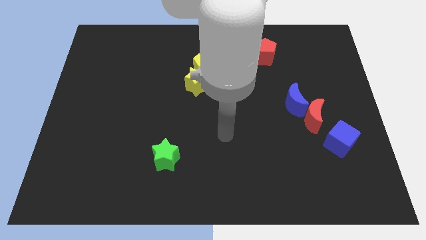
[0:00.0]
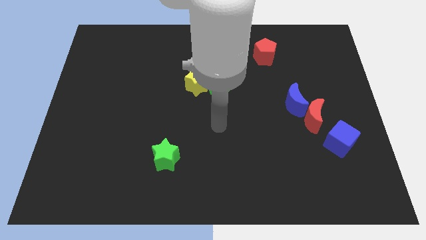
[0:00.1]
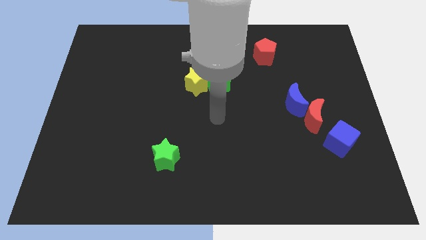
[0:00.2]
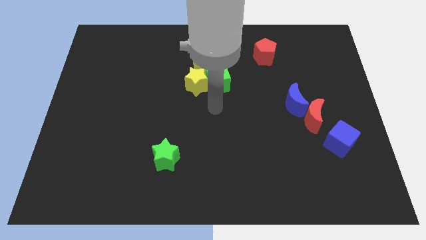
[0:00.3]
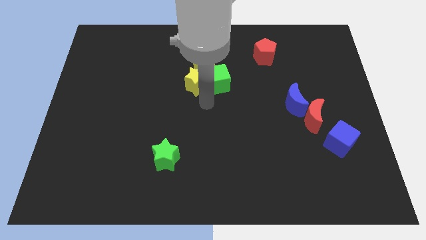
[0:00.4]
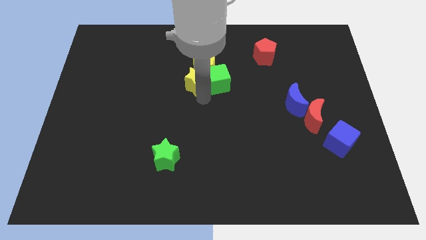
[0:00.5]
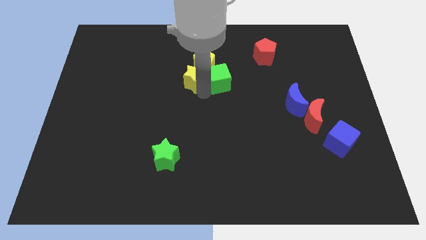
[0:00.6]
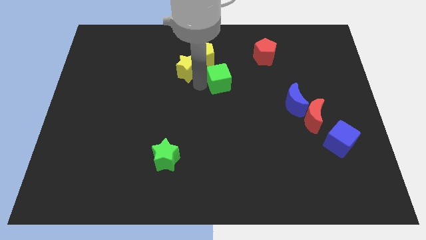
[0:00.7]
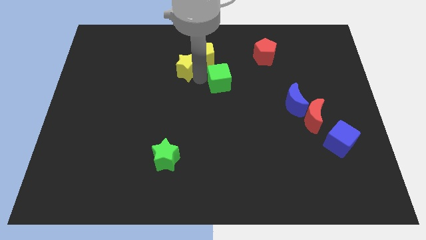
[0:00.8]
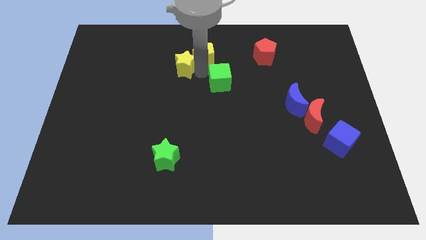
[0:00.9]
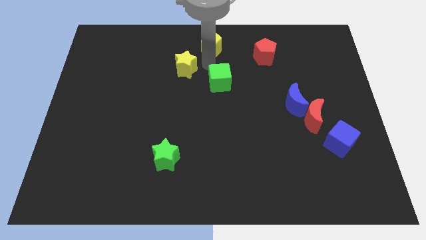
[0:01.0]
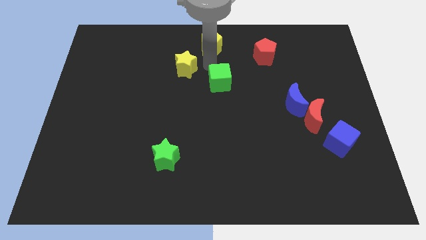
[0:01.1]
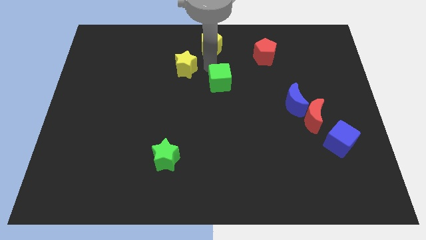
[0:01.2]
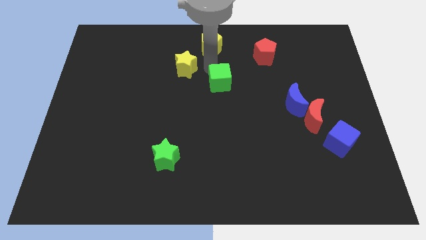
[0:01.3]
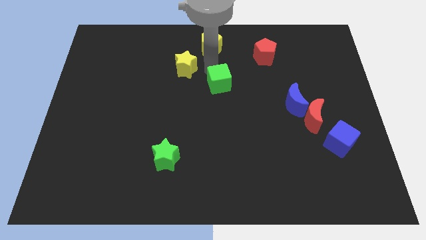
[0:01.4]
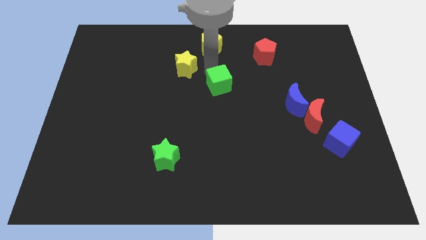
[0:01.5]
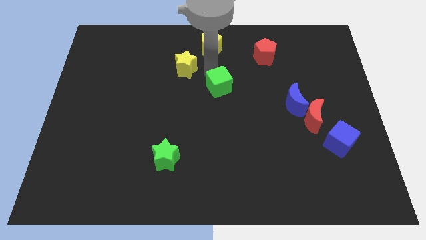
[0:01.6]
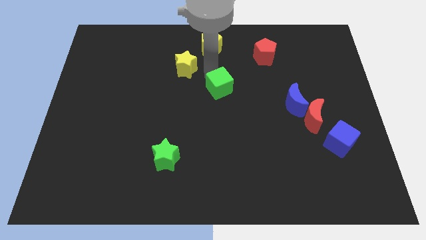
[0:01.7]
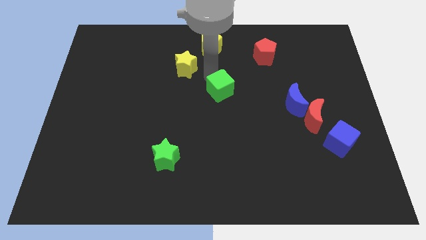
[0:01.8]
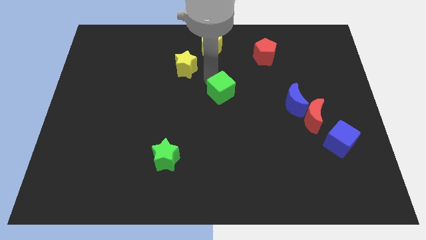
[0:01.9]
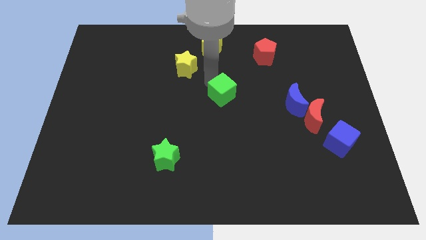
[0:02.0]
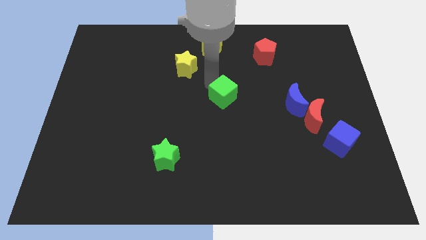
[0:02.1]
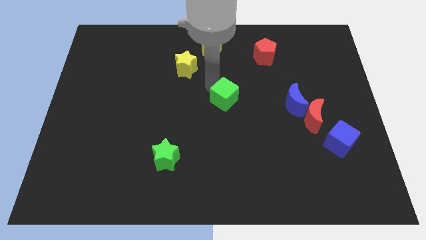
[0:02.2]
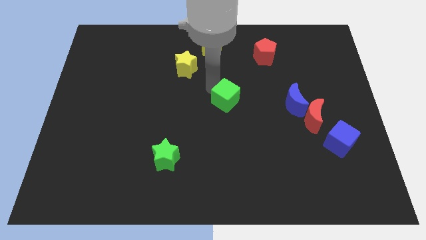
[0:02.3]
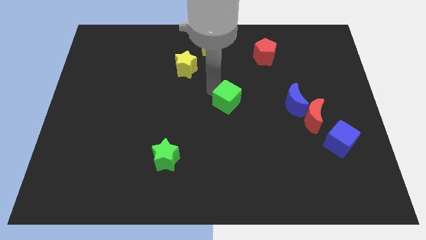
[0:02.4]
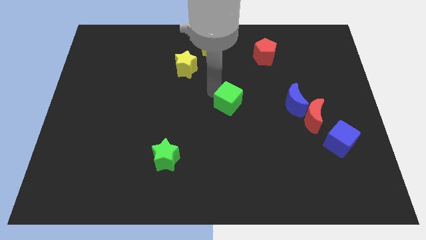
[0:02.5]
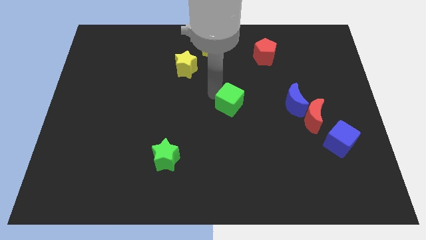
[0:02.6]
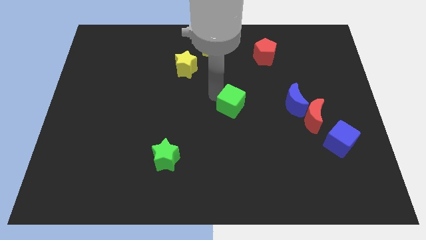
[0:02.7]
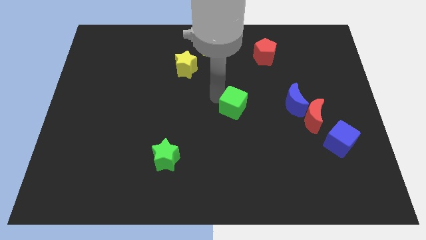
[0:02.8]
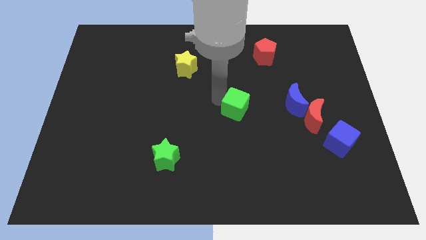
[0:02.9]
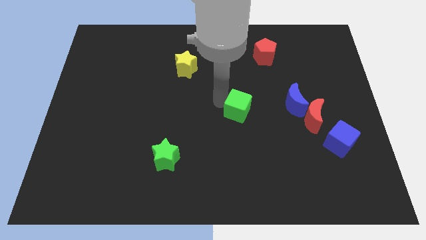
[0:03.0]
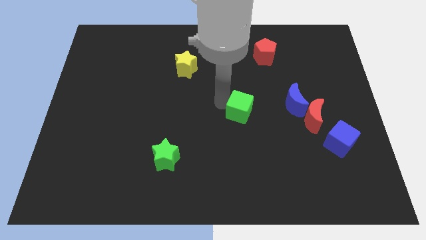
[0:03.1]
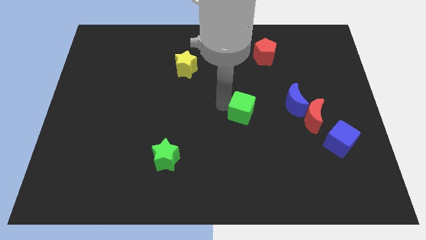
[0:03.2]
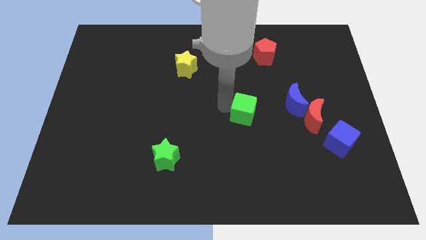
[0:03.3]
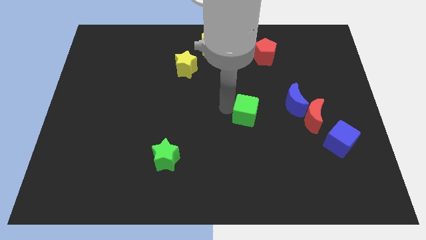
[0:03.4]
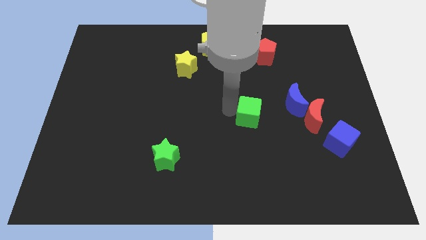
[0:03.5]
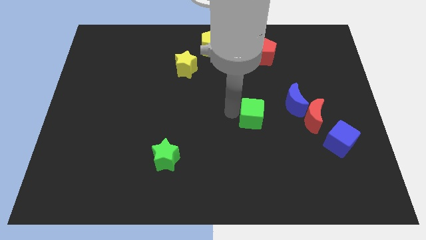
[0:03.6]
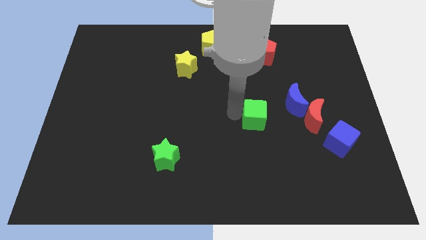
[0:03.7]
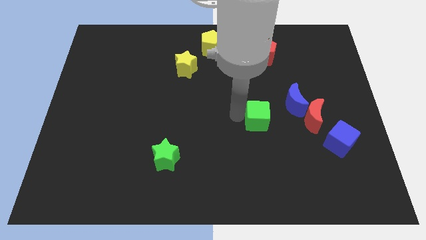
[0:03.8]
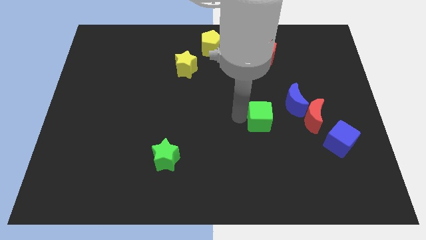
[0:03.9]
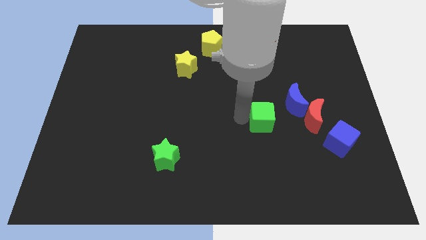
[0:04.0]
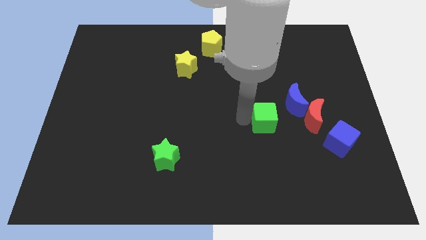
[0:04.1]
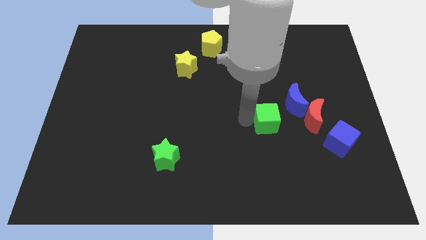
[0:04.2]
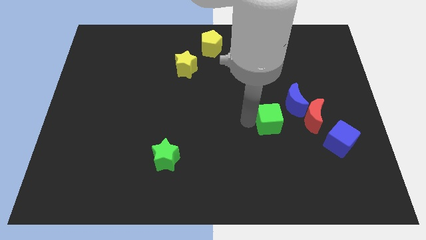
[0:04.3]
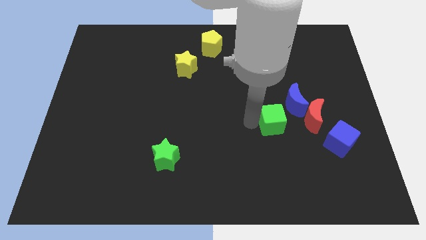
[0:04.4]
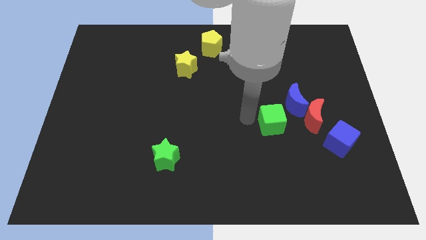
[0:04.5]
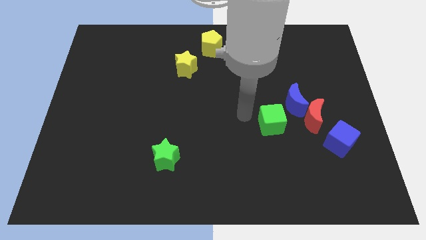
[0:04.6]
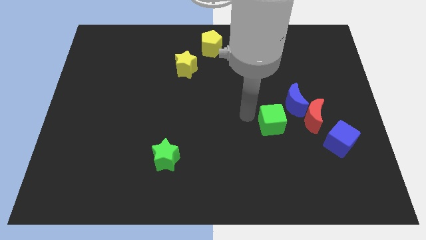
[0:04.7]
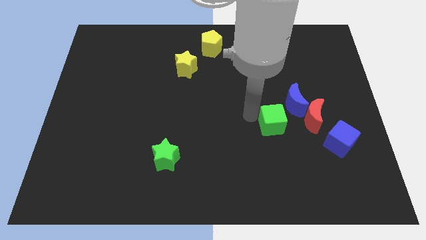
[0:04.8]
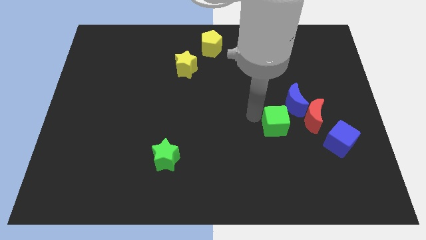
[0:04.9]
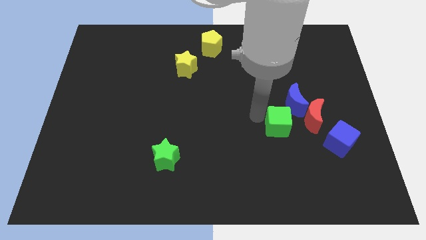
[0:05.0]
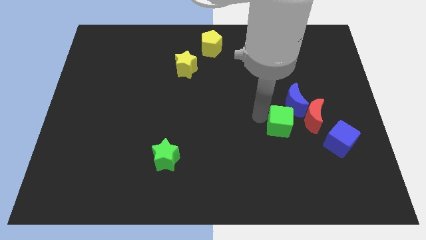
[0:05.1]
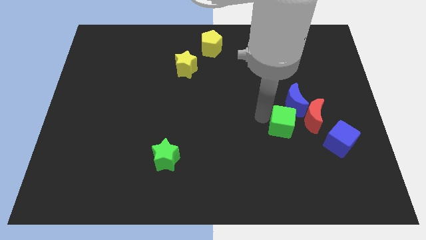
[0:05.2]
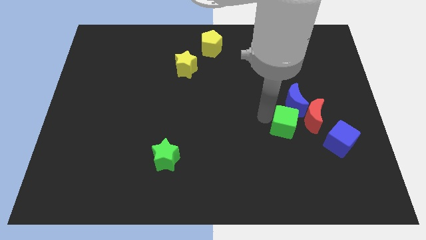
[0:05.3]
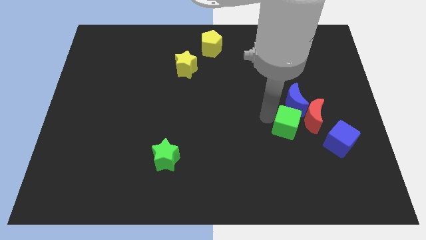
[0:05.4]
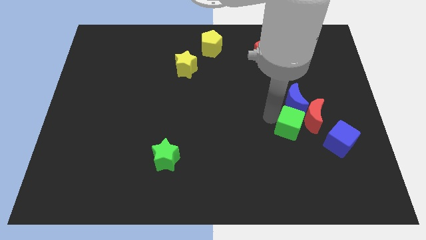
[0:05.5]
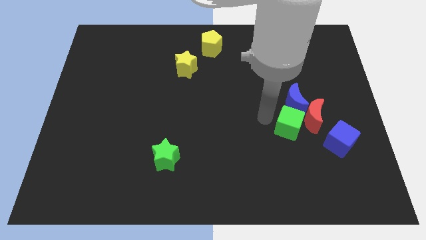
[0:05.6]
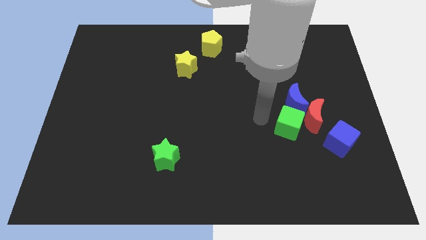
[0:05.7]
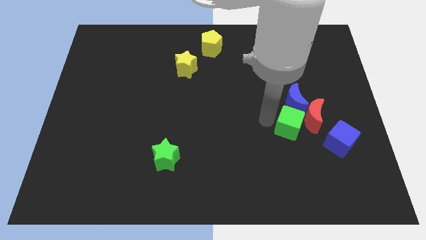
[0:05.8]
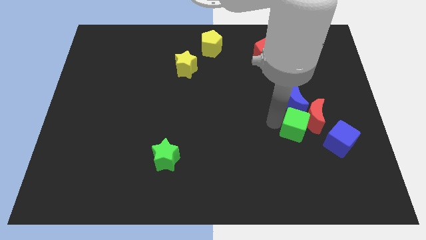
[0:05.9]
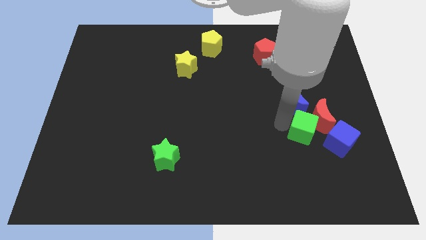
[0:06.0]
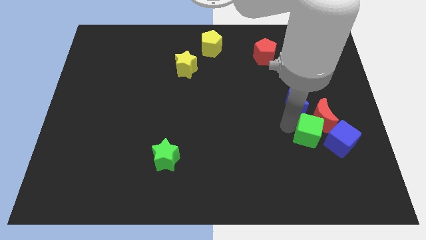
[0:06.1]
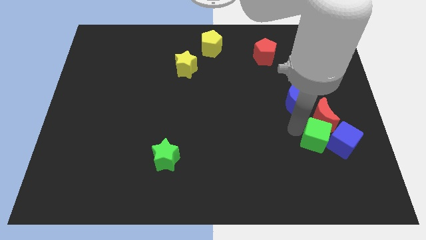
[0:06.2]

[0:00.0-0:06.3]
push the green cube close to the blue cube
